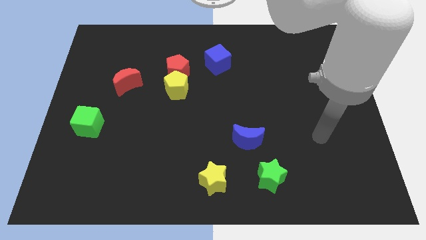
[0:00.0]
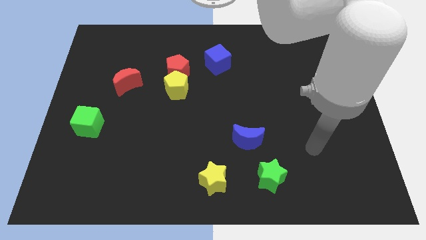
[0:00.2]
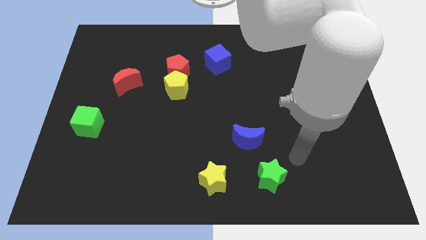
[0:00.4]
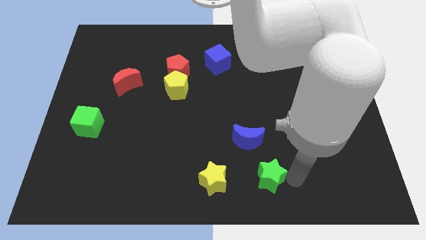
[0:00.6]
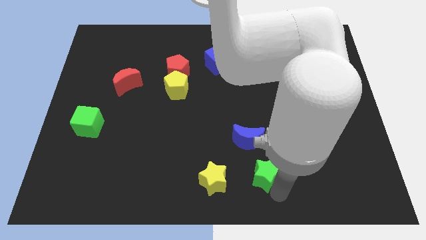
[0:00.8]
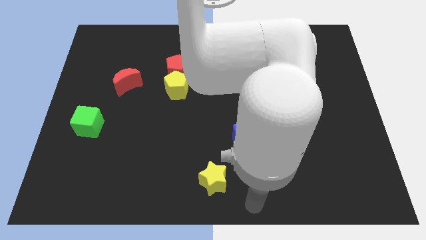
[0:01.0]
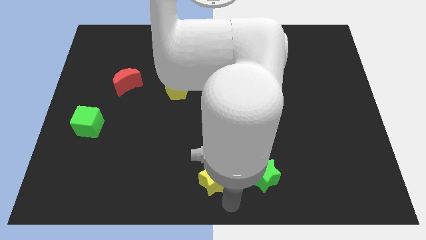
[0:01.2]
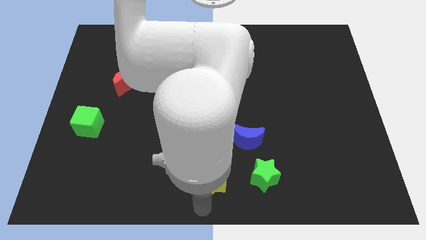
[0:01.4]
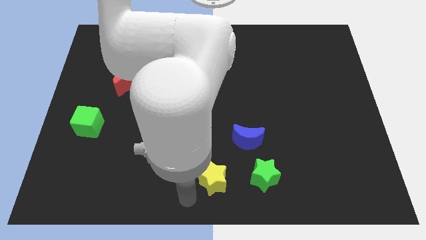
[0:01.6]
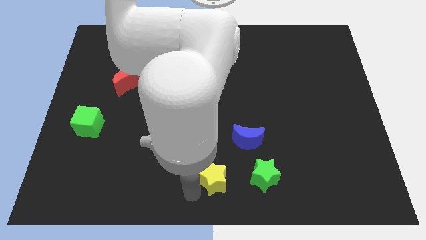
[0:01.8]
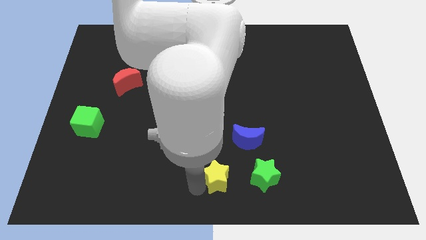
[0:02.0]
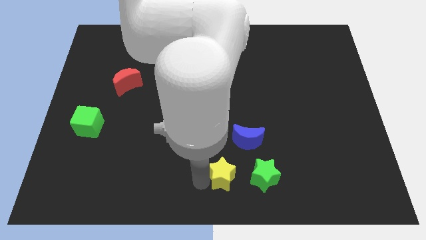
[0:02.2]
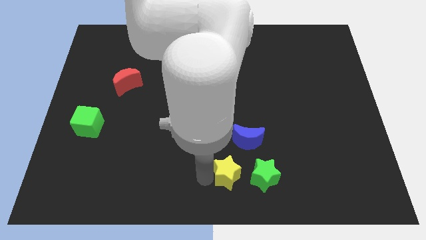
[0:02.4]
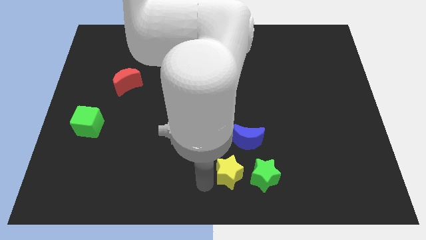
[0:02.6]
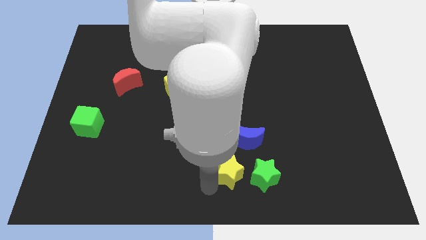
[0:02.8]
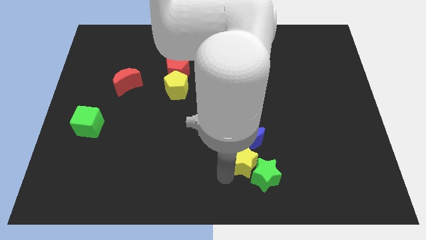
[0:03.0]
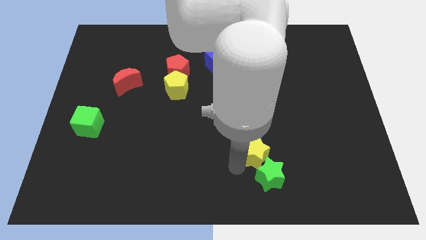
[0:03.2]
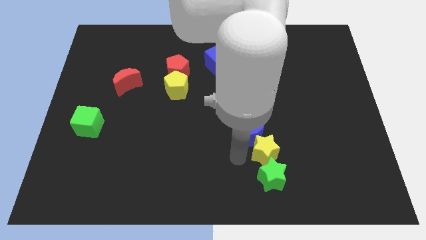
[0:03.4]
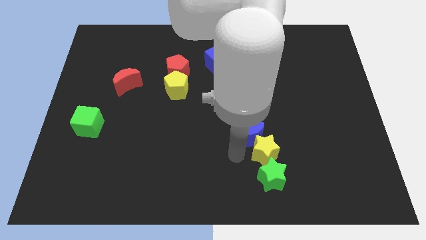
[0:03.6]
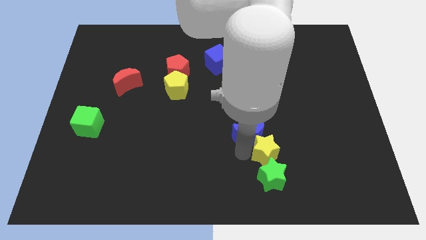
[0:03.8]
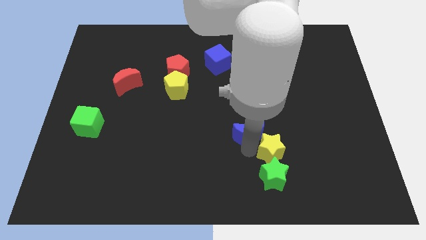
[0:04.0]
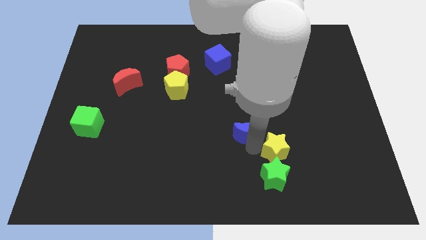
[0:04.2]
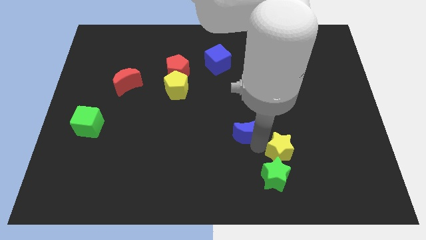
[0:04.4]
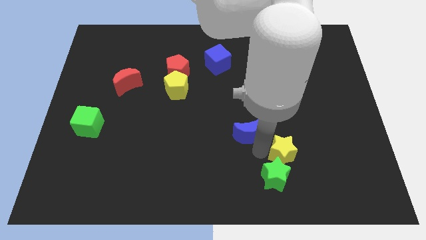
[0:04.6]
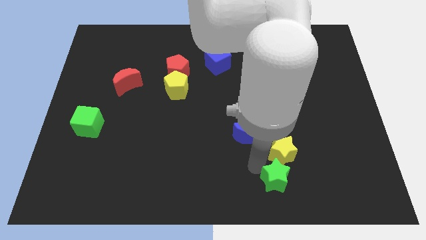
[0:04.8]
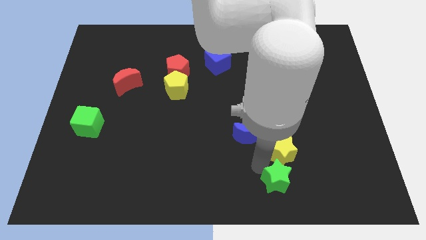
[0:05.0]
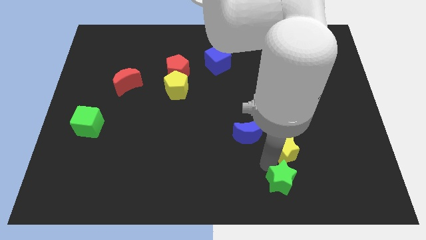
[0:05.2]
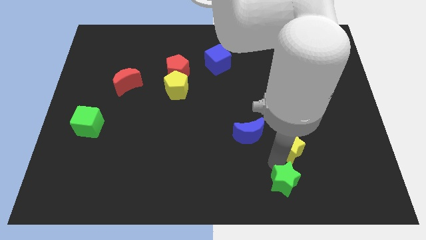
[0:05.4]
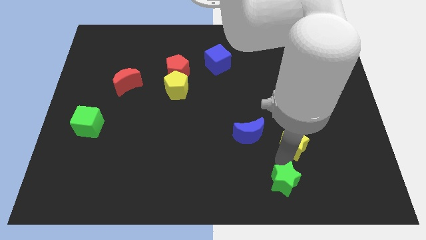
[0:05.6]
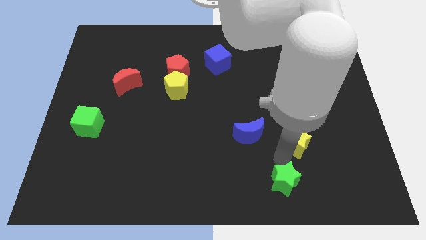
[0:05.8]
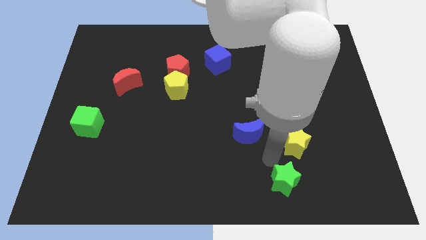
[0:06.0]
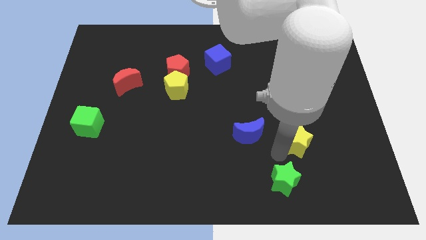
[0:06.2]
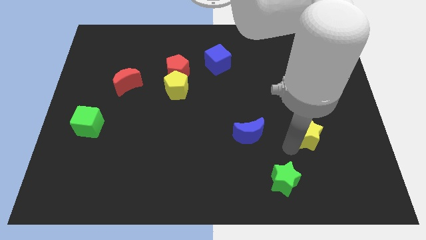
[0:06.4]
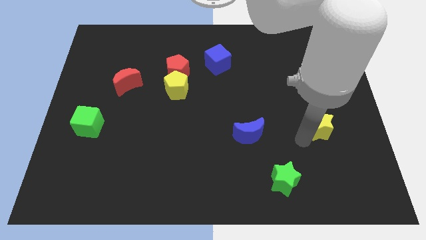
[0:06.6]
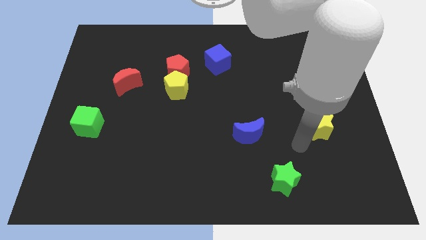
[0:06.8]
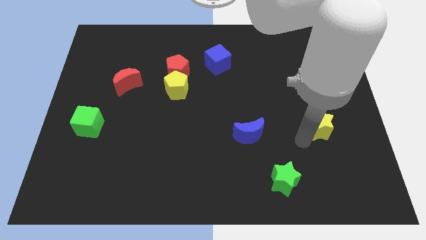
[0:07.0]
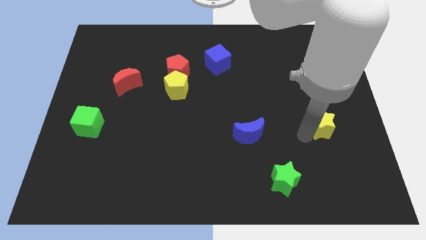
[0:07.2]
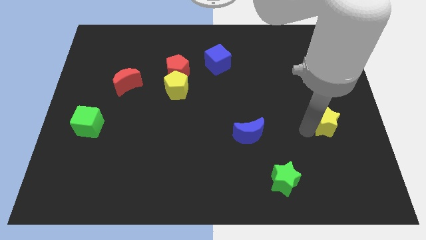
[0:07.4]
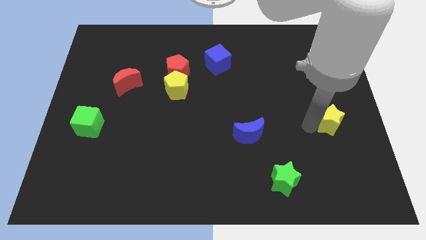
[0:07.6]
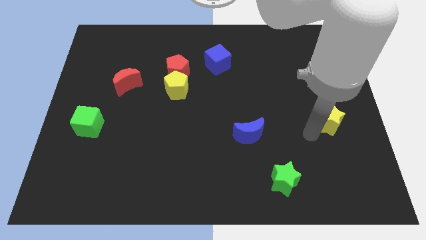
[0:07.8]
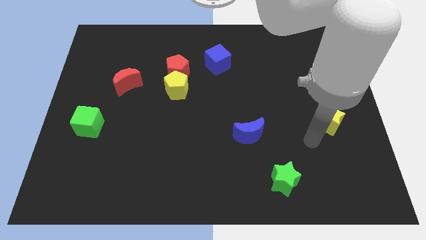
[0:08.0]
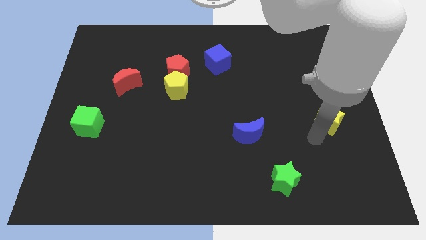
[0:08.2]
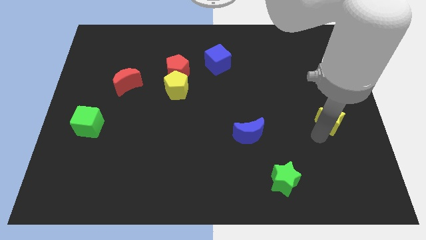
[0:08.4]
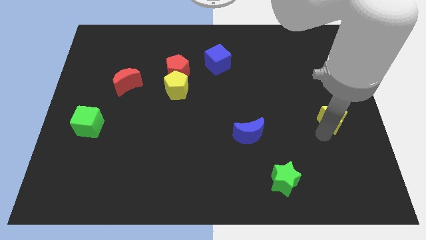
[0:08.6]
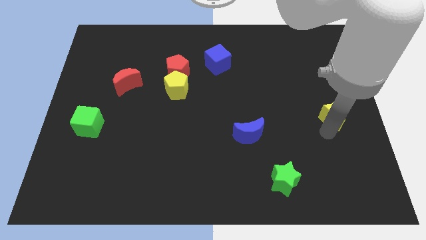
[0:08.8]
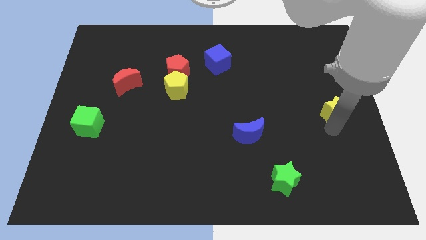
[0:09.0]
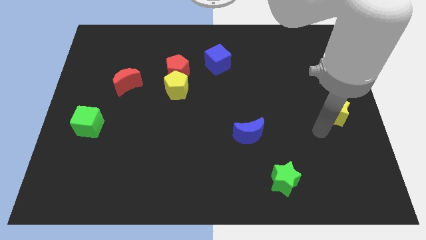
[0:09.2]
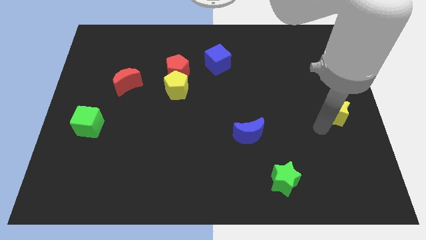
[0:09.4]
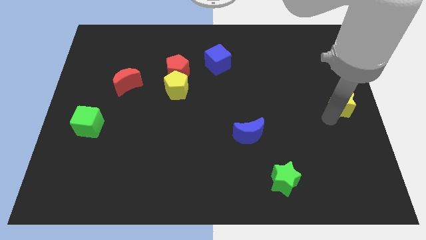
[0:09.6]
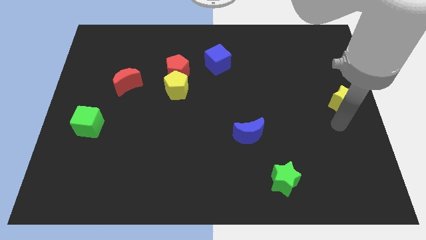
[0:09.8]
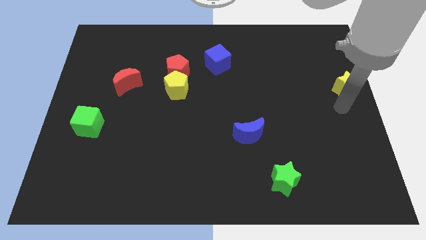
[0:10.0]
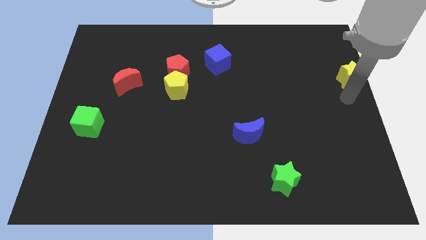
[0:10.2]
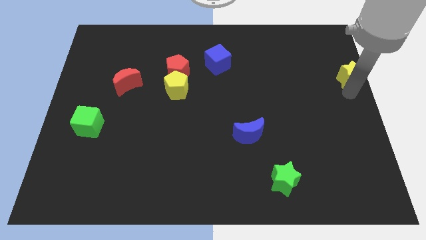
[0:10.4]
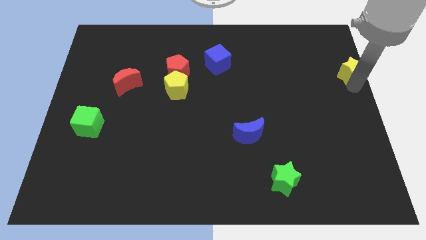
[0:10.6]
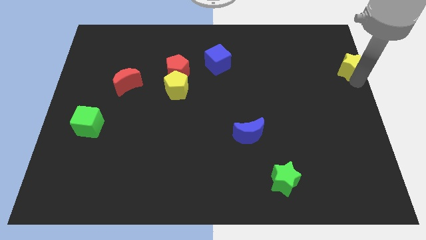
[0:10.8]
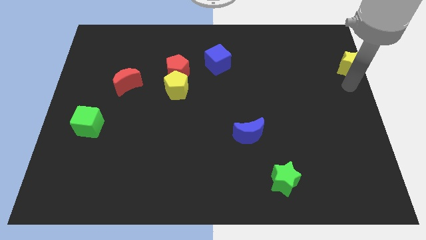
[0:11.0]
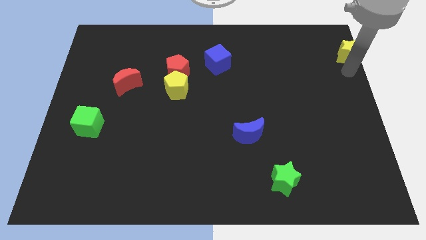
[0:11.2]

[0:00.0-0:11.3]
put the yellow star to the top right corner

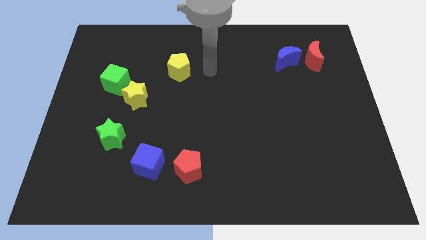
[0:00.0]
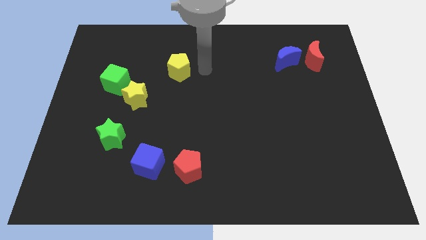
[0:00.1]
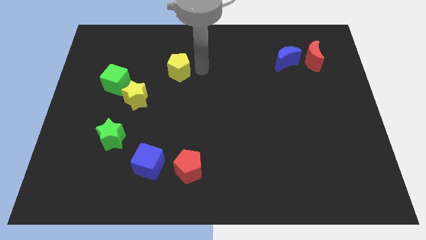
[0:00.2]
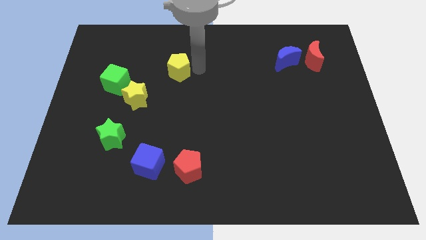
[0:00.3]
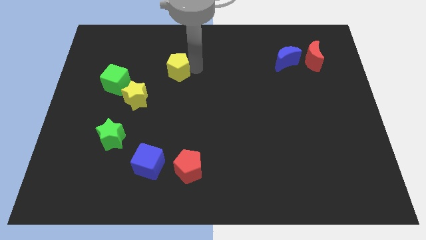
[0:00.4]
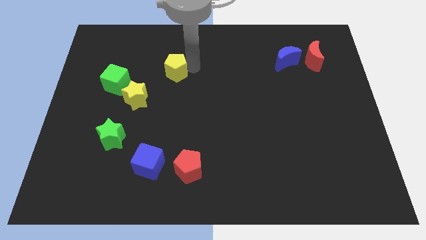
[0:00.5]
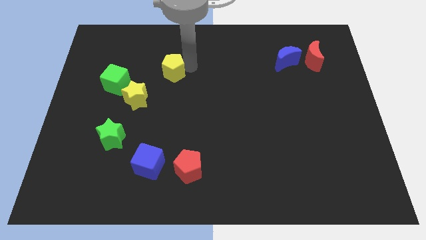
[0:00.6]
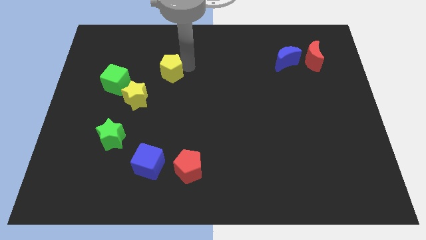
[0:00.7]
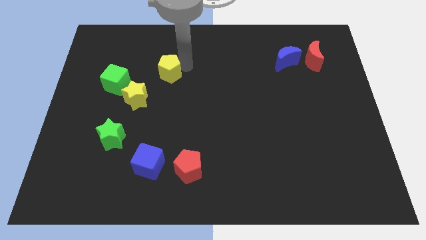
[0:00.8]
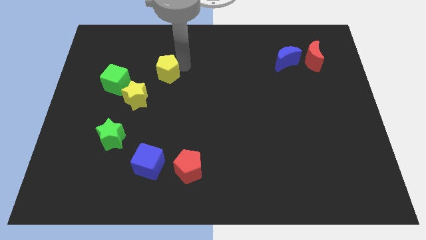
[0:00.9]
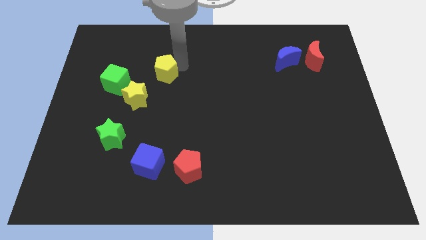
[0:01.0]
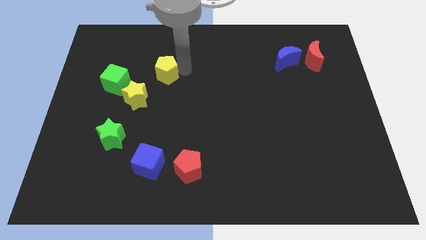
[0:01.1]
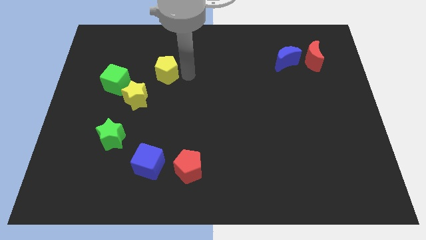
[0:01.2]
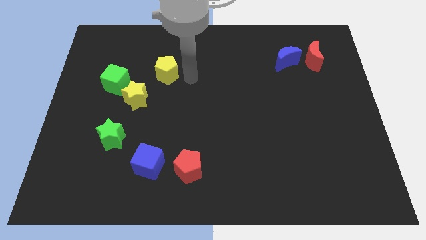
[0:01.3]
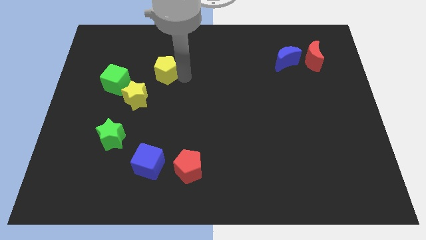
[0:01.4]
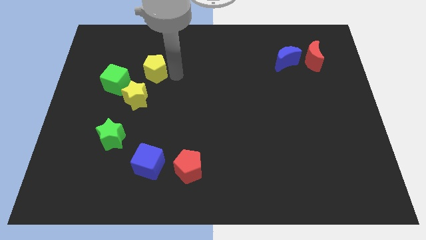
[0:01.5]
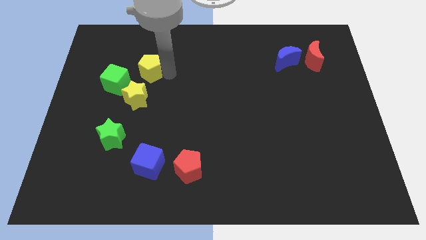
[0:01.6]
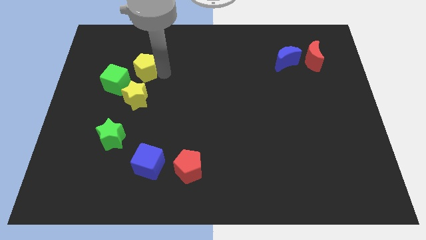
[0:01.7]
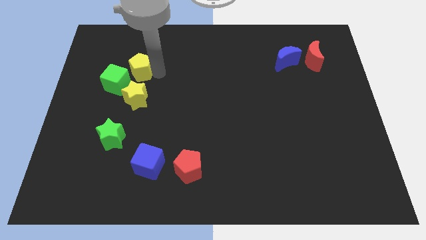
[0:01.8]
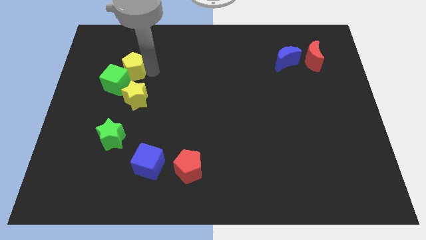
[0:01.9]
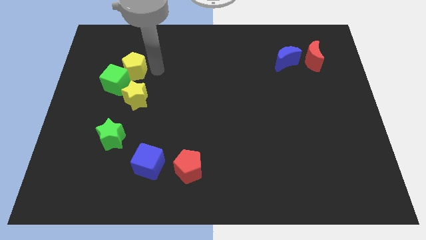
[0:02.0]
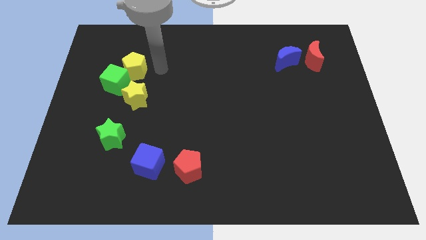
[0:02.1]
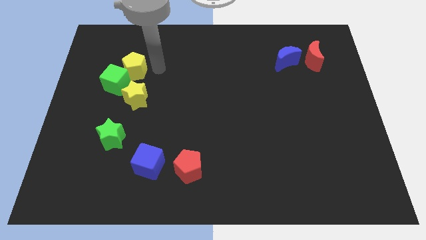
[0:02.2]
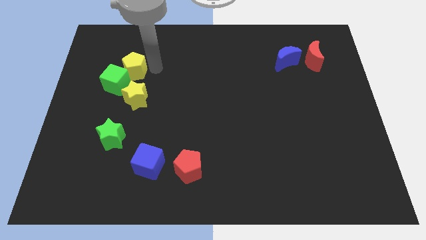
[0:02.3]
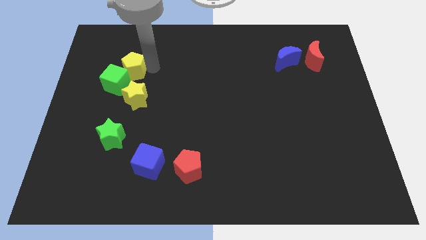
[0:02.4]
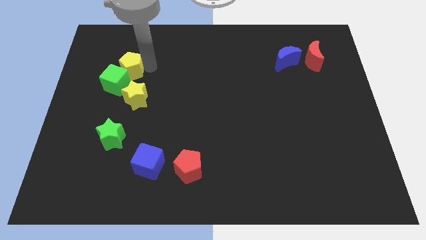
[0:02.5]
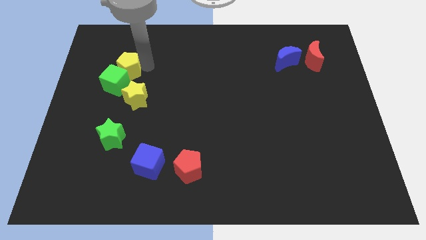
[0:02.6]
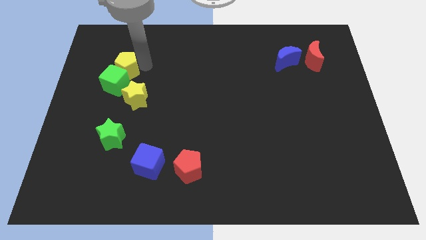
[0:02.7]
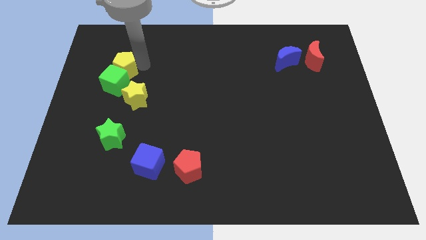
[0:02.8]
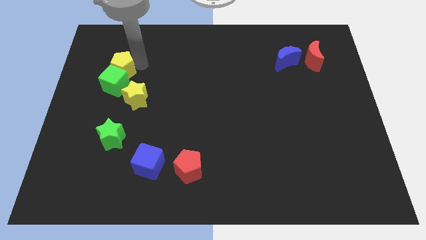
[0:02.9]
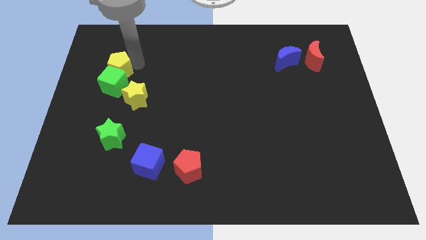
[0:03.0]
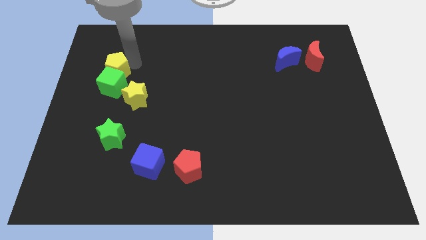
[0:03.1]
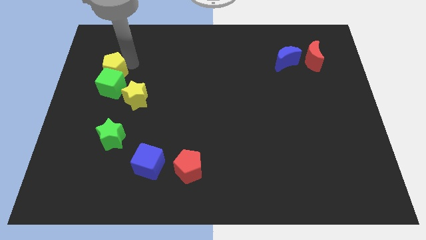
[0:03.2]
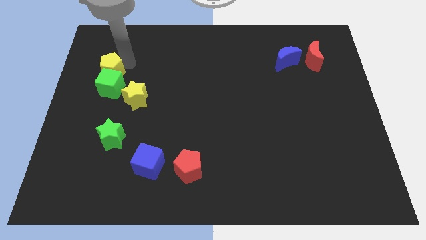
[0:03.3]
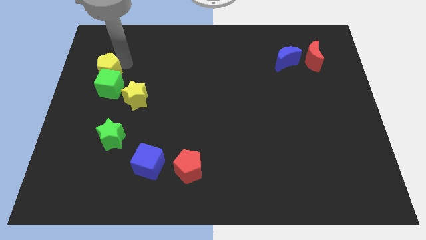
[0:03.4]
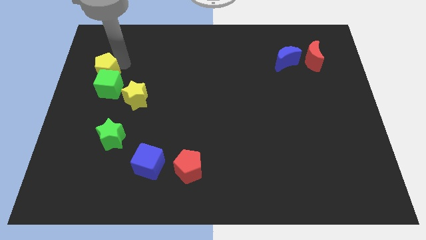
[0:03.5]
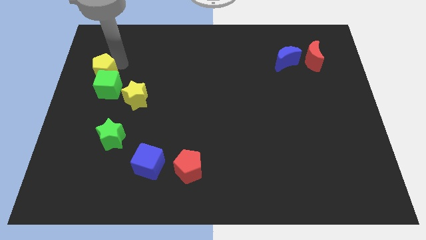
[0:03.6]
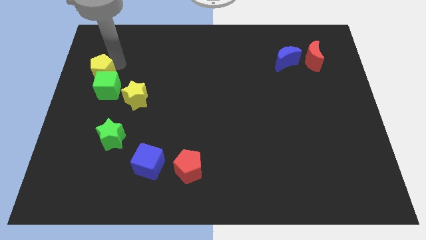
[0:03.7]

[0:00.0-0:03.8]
push the yellow pentagon to the center left
